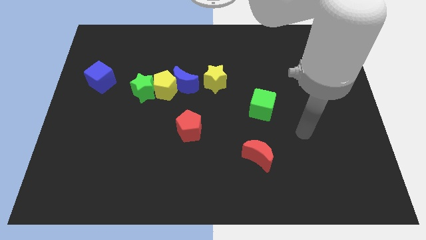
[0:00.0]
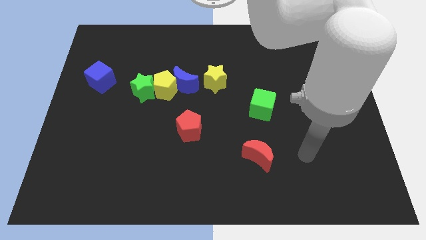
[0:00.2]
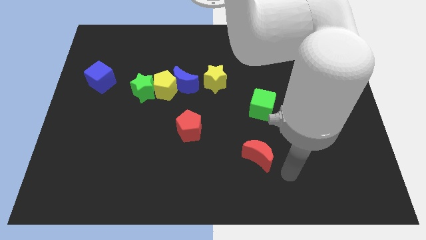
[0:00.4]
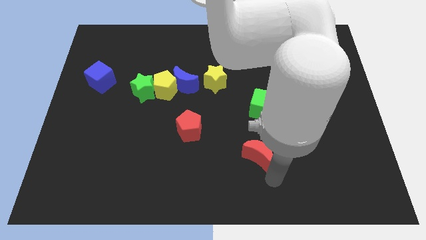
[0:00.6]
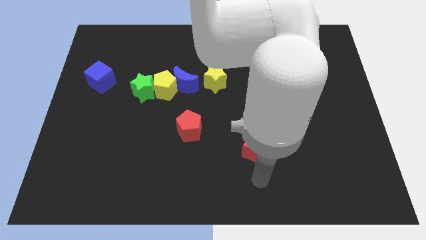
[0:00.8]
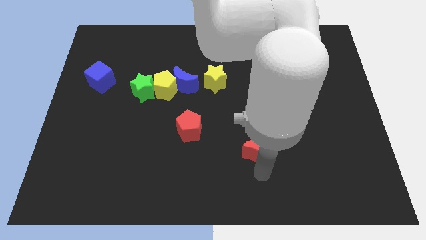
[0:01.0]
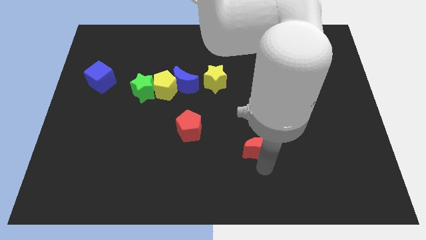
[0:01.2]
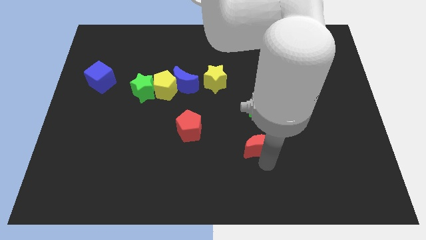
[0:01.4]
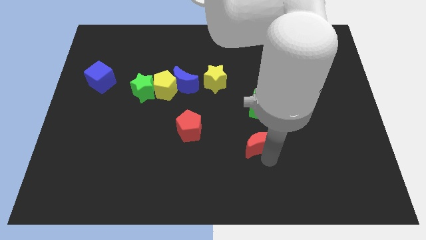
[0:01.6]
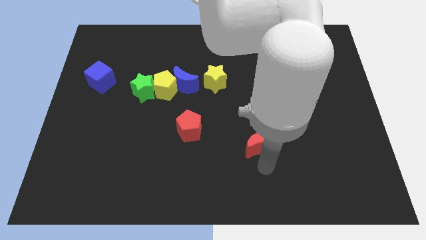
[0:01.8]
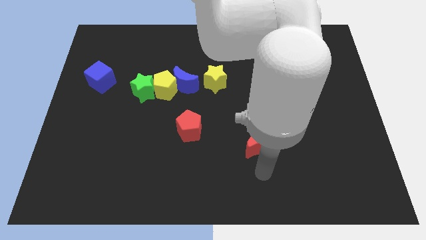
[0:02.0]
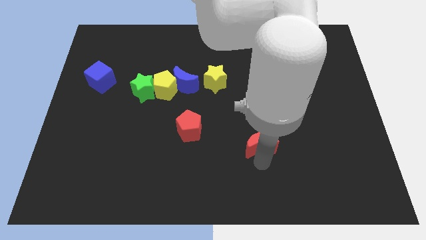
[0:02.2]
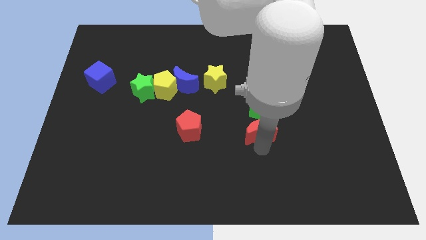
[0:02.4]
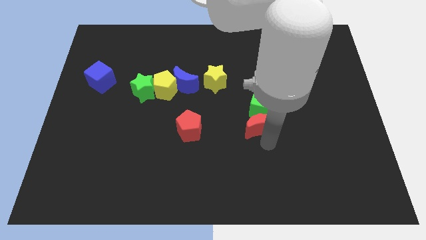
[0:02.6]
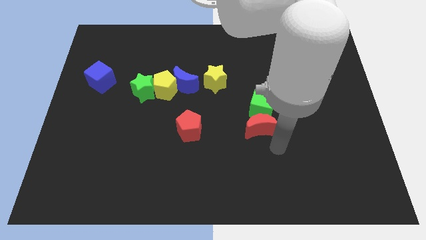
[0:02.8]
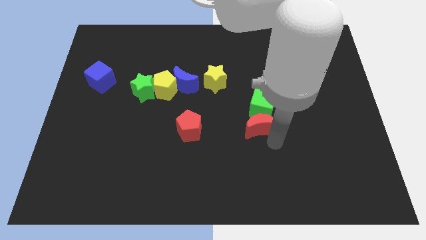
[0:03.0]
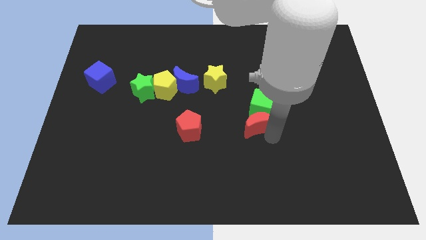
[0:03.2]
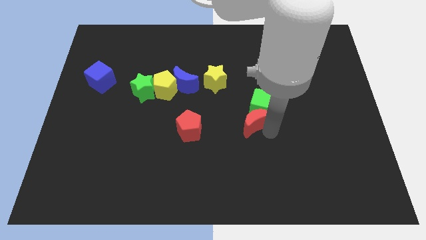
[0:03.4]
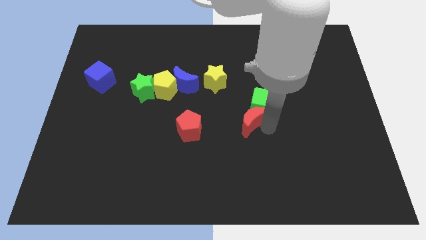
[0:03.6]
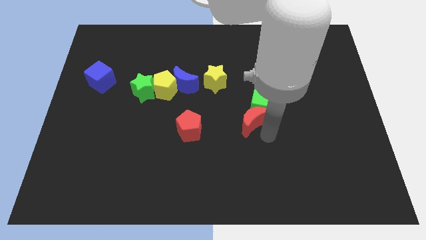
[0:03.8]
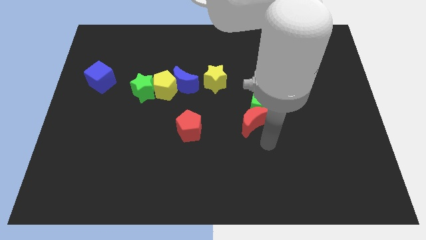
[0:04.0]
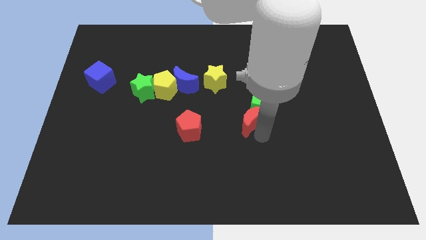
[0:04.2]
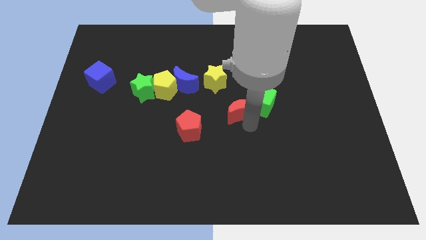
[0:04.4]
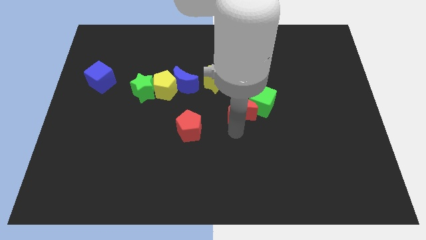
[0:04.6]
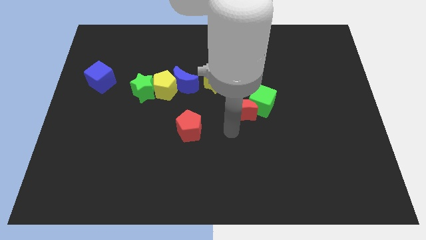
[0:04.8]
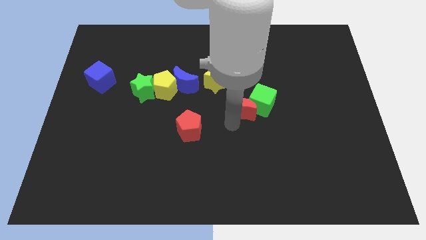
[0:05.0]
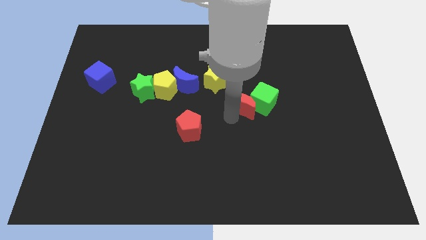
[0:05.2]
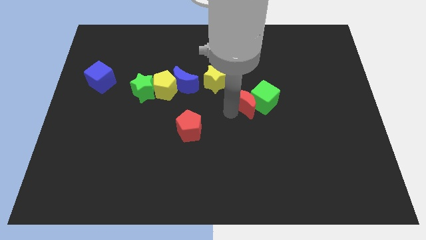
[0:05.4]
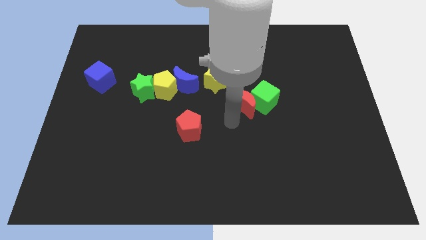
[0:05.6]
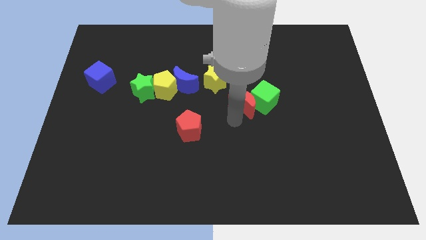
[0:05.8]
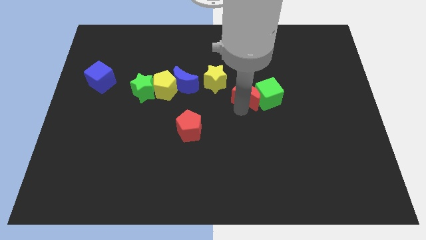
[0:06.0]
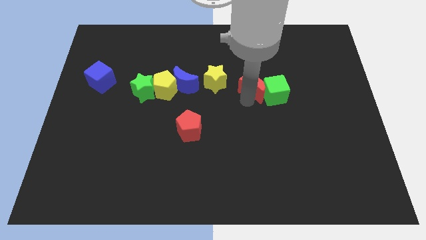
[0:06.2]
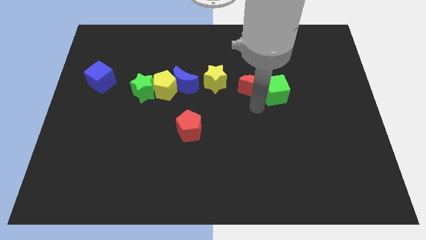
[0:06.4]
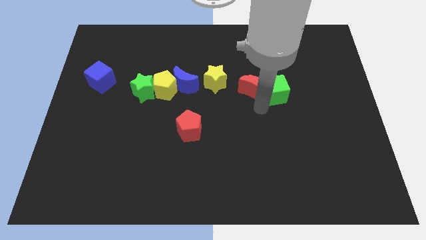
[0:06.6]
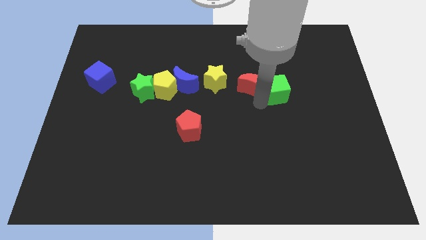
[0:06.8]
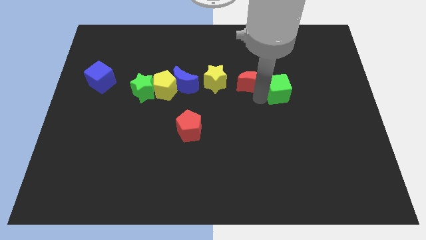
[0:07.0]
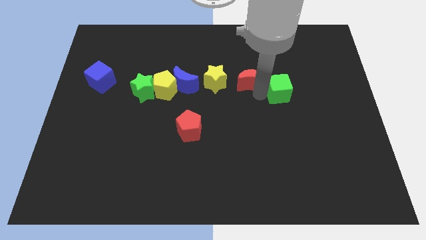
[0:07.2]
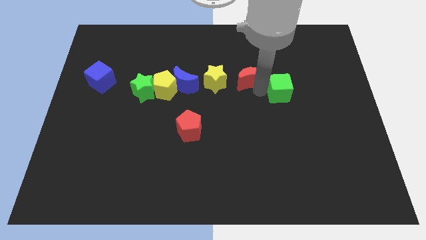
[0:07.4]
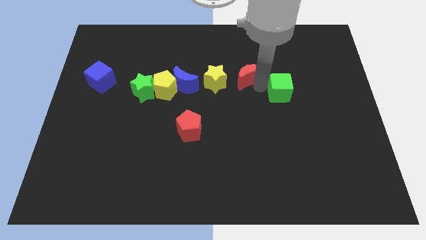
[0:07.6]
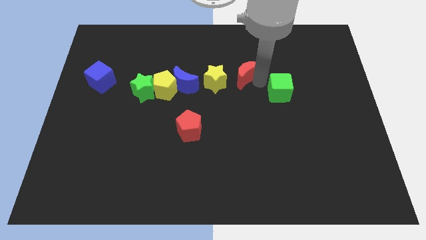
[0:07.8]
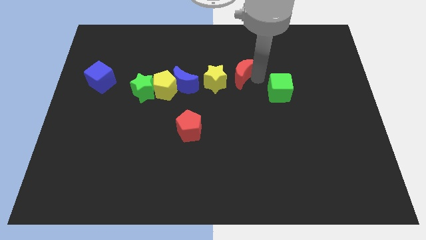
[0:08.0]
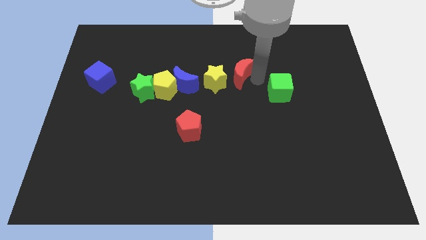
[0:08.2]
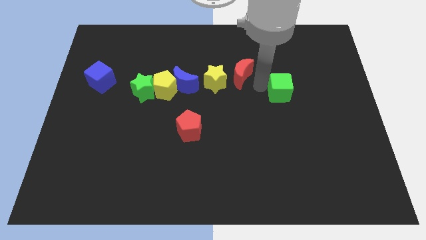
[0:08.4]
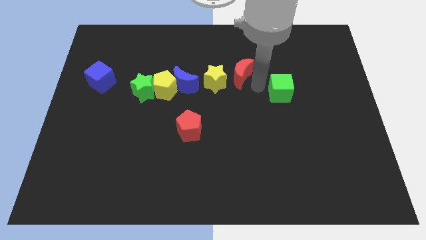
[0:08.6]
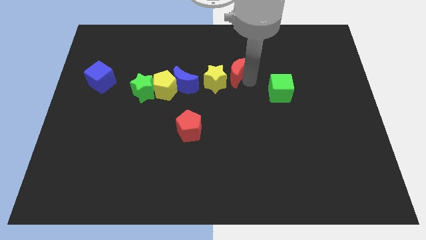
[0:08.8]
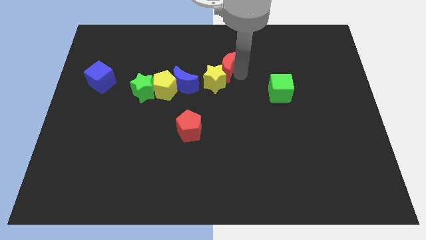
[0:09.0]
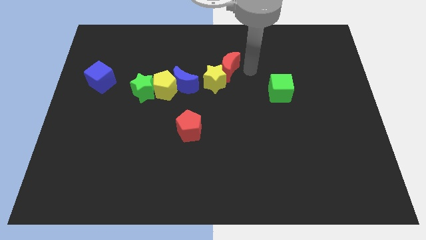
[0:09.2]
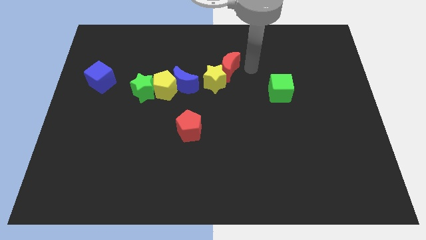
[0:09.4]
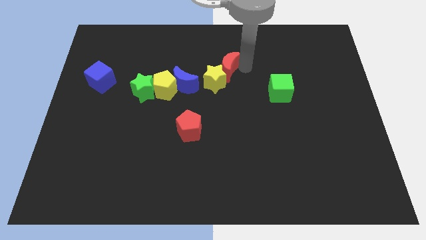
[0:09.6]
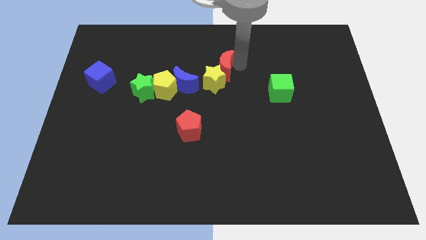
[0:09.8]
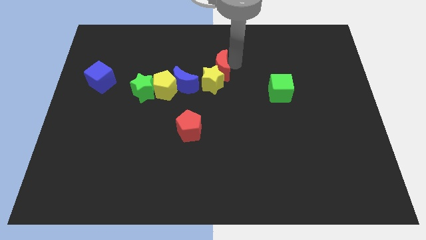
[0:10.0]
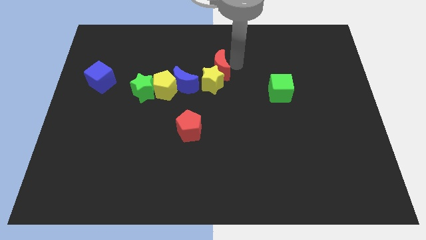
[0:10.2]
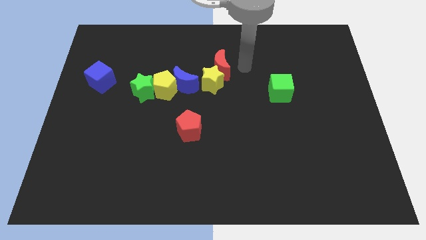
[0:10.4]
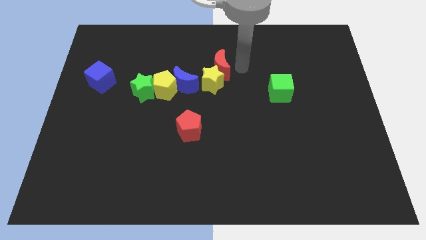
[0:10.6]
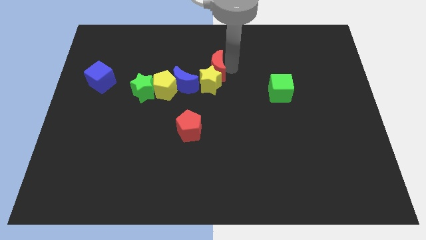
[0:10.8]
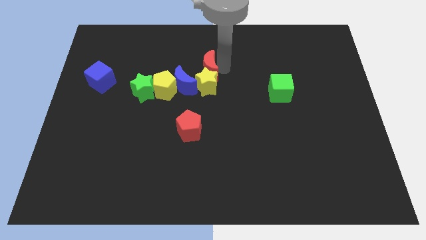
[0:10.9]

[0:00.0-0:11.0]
move the red moon diagonally up and left

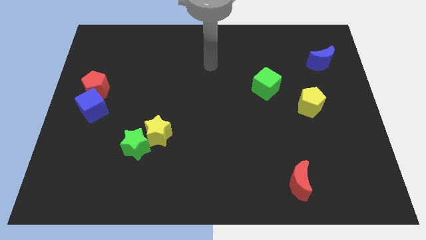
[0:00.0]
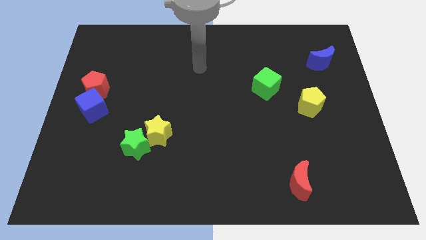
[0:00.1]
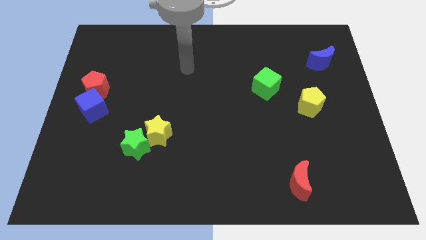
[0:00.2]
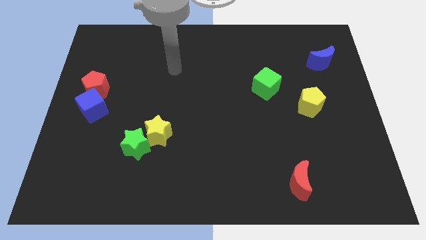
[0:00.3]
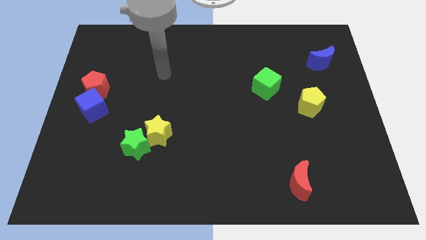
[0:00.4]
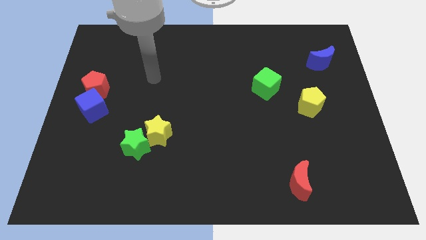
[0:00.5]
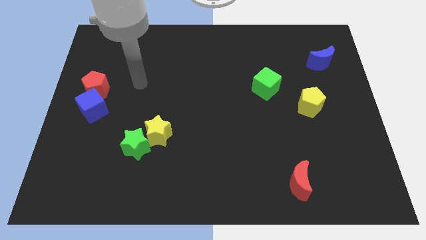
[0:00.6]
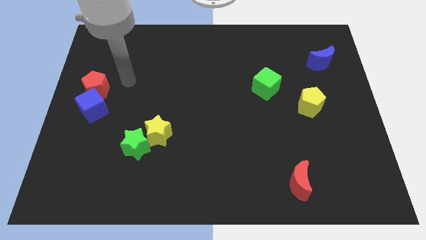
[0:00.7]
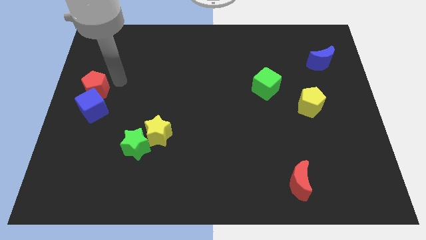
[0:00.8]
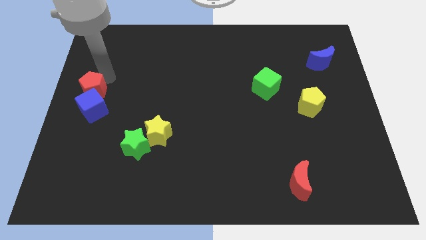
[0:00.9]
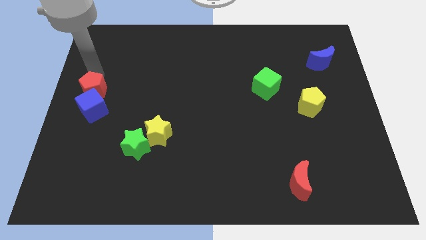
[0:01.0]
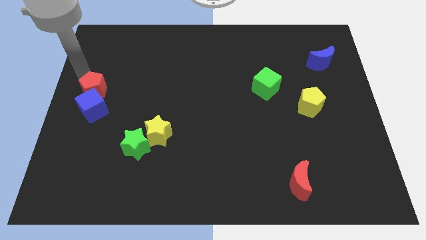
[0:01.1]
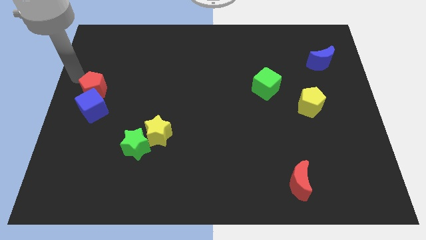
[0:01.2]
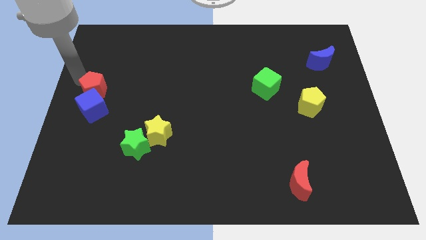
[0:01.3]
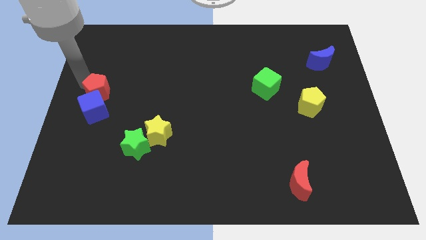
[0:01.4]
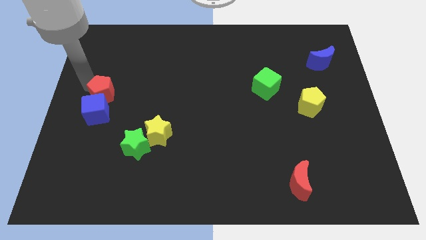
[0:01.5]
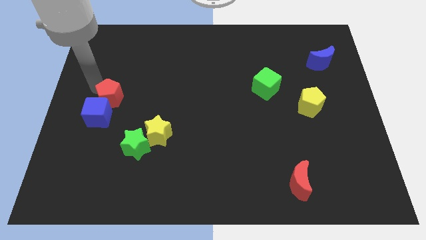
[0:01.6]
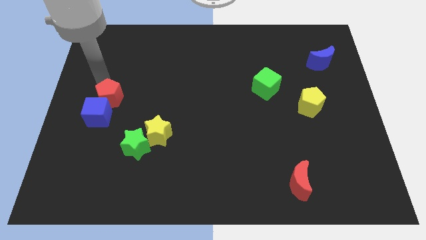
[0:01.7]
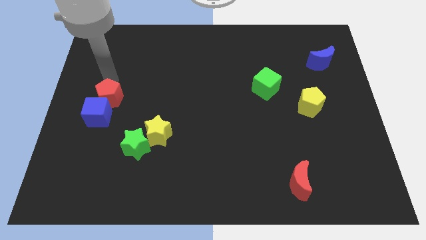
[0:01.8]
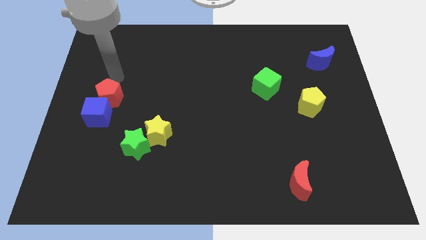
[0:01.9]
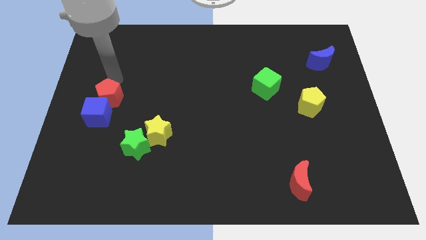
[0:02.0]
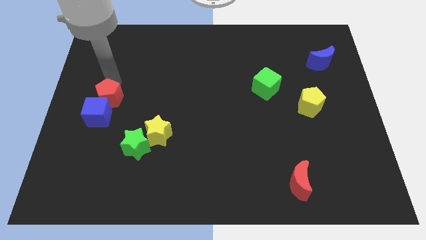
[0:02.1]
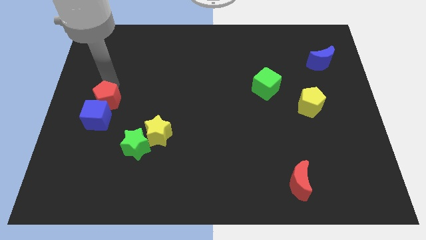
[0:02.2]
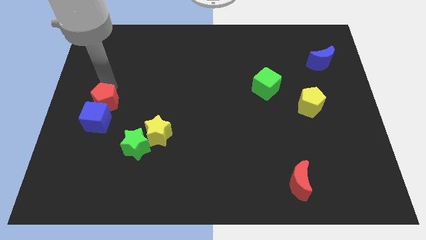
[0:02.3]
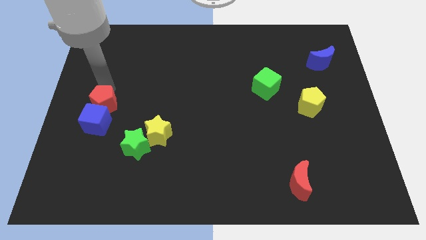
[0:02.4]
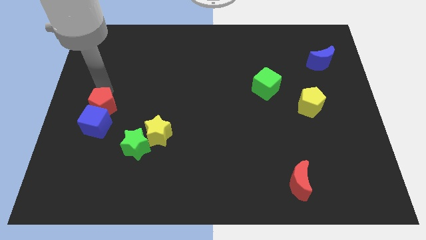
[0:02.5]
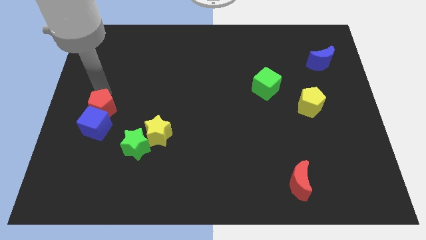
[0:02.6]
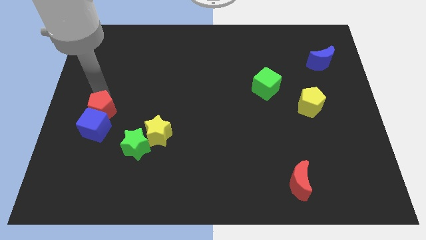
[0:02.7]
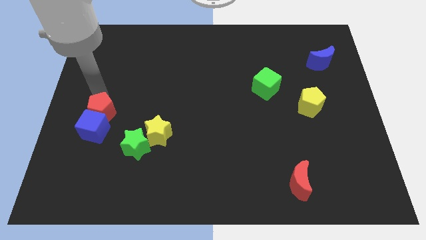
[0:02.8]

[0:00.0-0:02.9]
slightly move the red pentagon downwards
